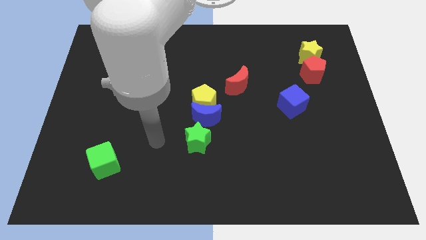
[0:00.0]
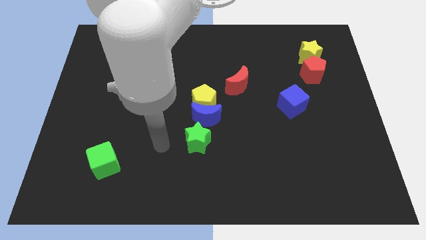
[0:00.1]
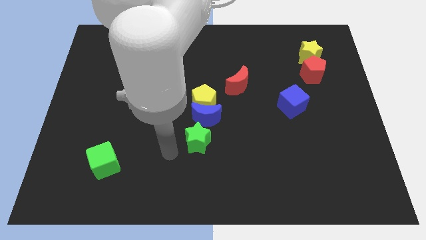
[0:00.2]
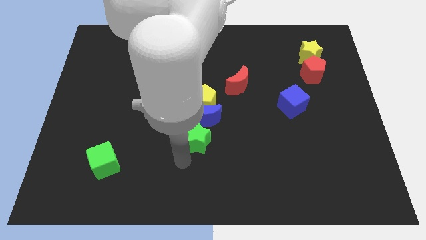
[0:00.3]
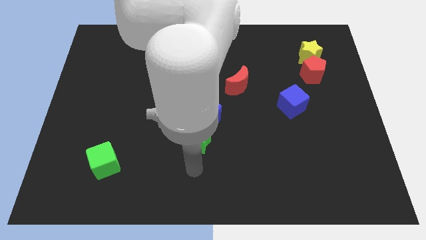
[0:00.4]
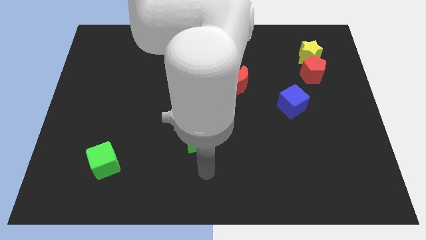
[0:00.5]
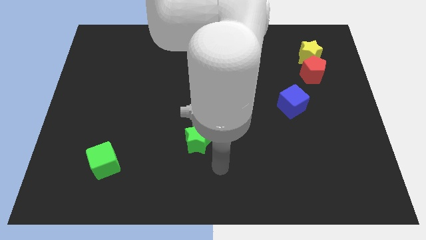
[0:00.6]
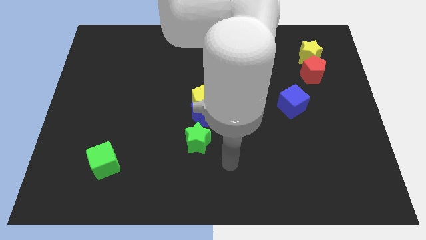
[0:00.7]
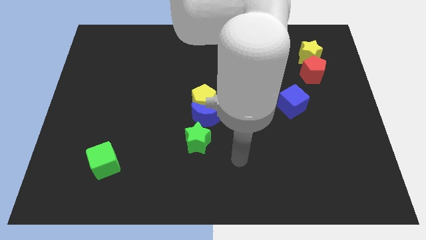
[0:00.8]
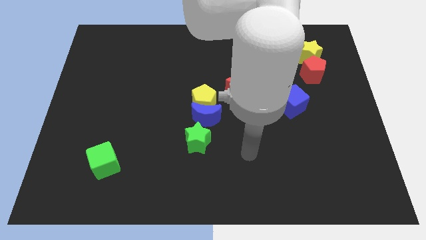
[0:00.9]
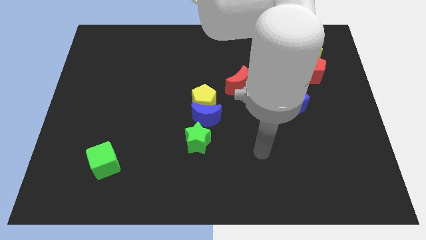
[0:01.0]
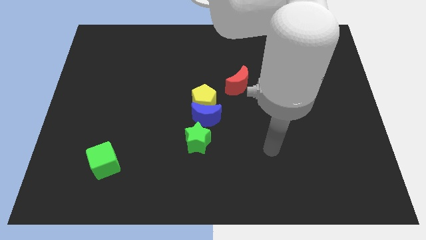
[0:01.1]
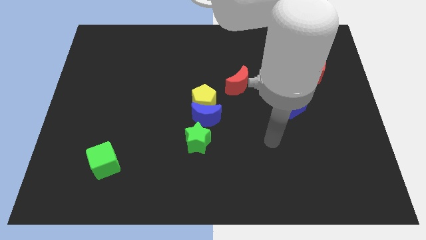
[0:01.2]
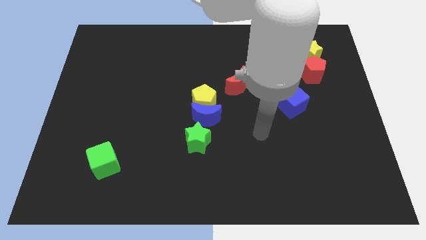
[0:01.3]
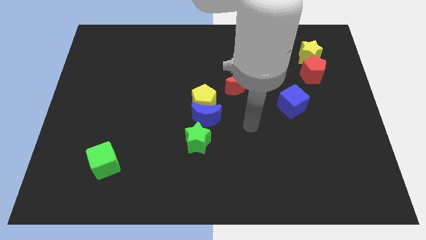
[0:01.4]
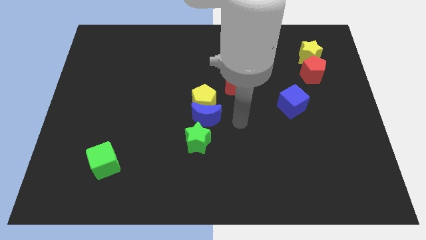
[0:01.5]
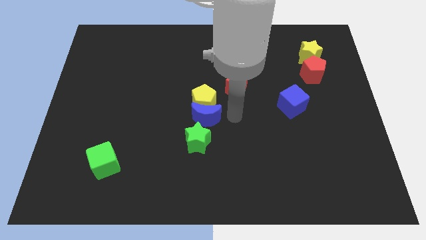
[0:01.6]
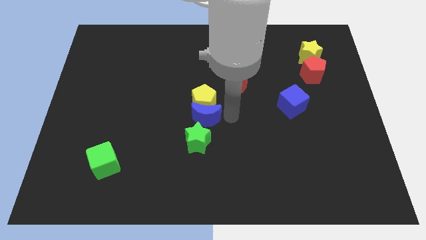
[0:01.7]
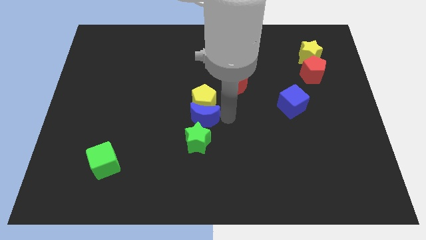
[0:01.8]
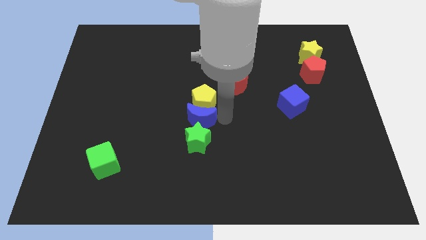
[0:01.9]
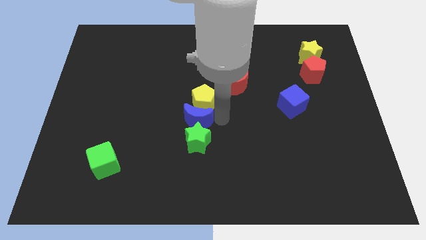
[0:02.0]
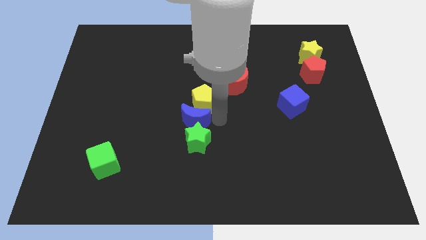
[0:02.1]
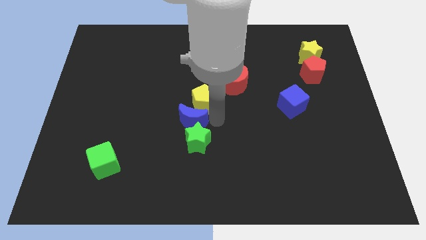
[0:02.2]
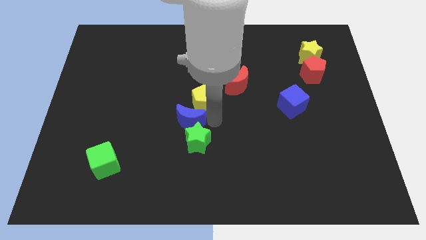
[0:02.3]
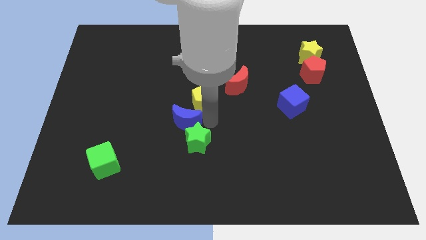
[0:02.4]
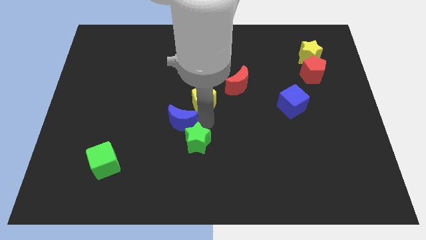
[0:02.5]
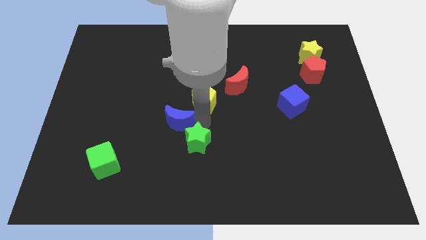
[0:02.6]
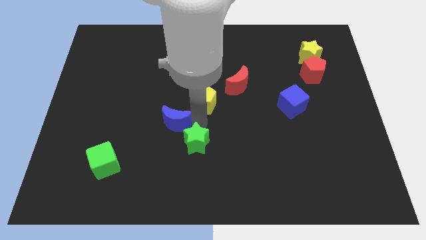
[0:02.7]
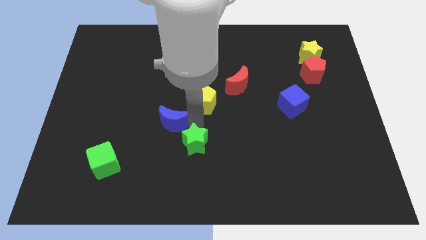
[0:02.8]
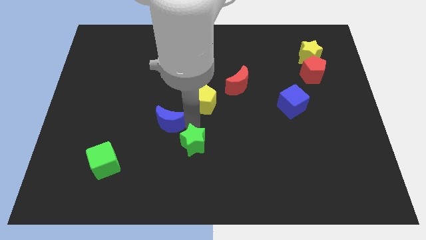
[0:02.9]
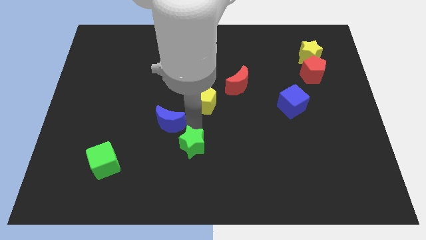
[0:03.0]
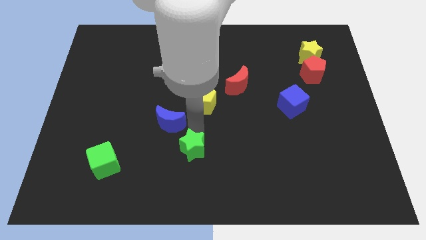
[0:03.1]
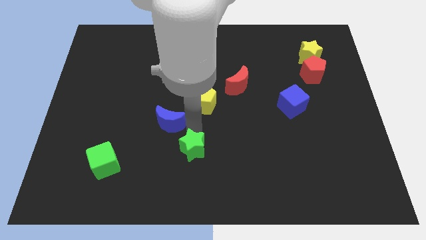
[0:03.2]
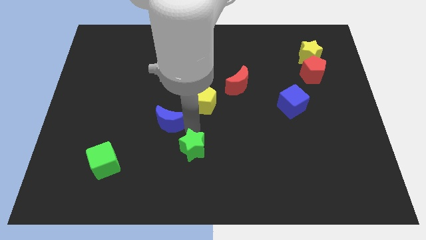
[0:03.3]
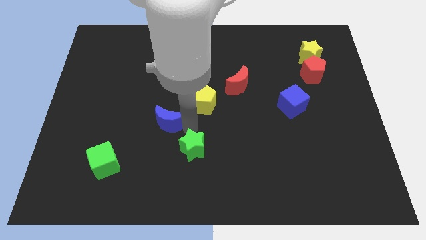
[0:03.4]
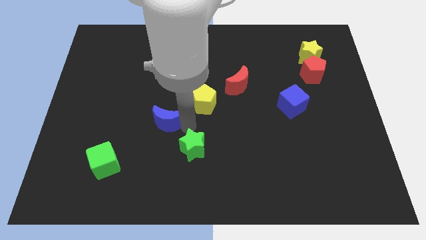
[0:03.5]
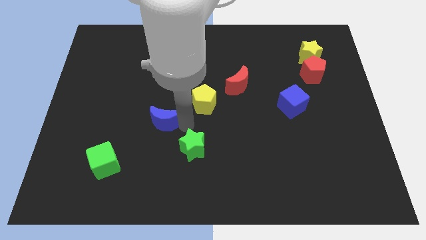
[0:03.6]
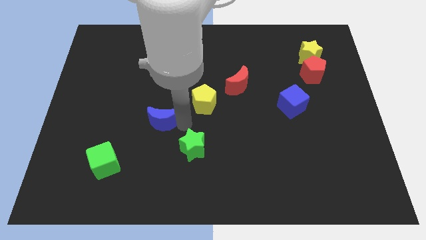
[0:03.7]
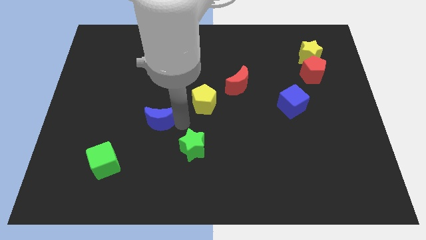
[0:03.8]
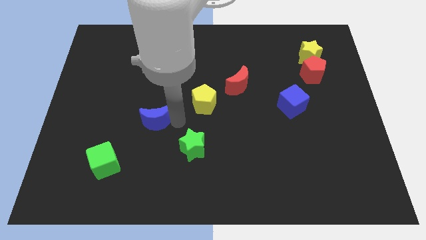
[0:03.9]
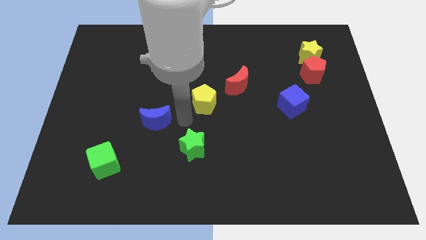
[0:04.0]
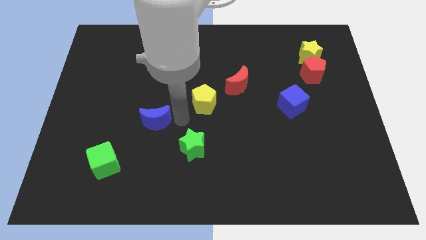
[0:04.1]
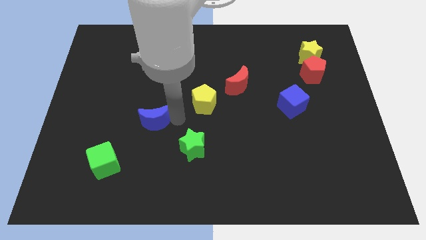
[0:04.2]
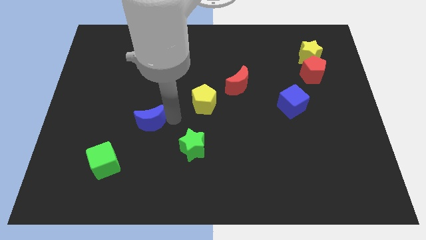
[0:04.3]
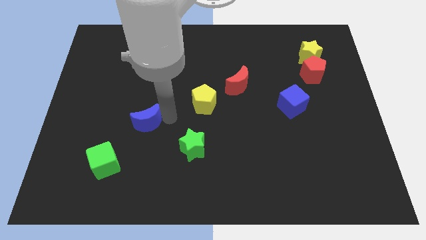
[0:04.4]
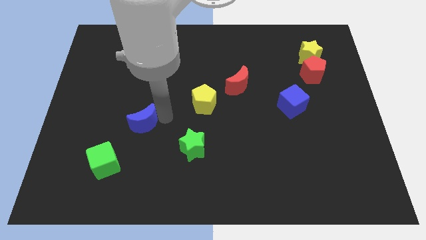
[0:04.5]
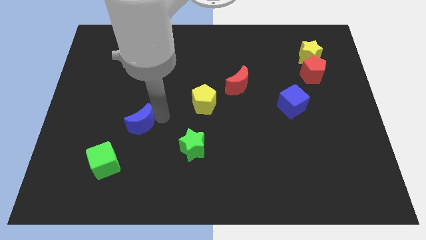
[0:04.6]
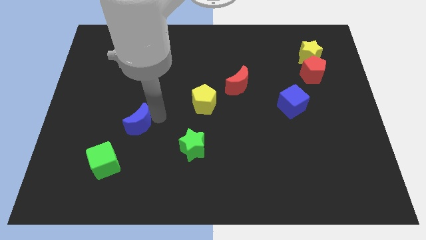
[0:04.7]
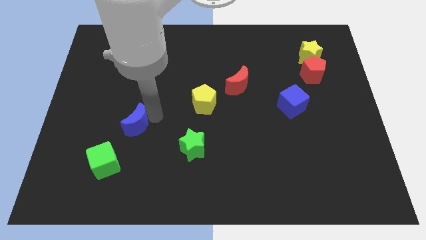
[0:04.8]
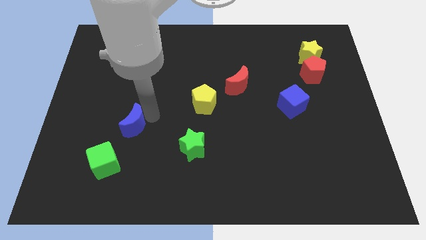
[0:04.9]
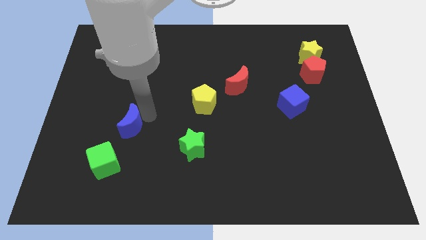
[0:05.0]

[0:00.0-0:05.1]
push the blue moon to the top of the green cube

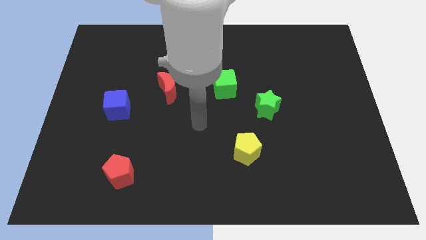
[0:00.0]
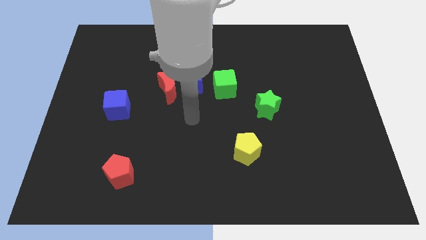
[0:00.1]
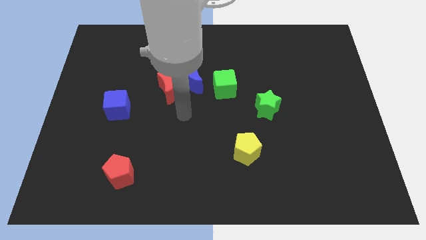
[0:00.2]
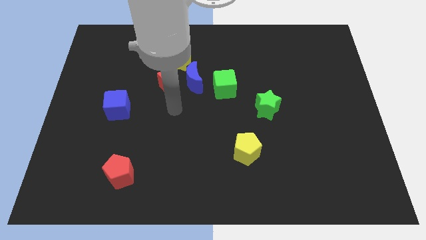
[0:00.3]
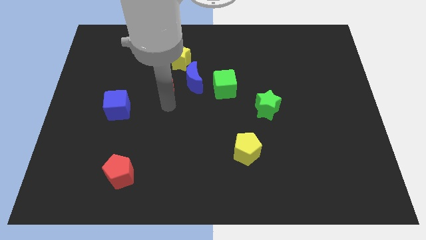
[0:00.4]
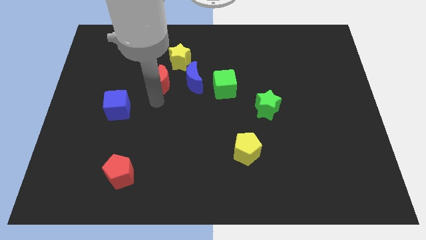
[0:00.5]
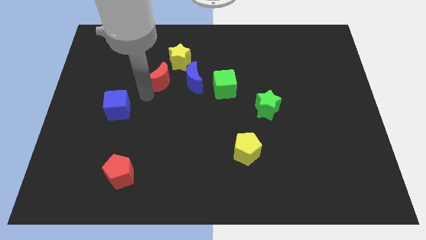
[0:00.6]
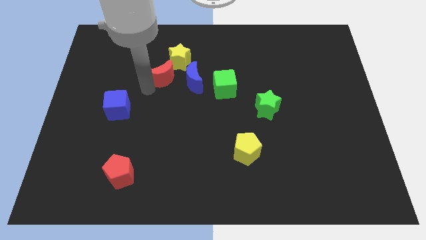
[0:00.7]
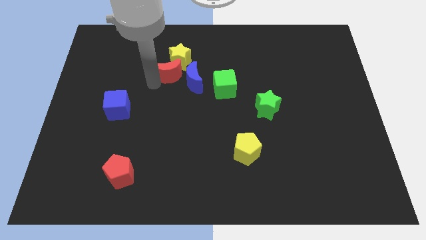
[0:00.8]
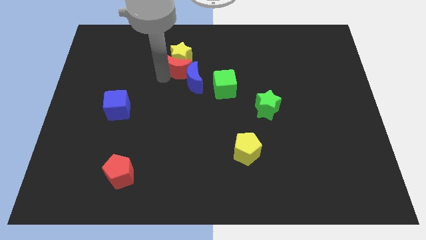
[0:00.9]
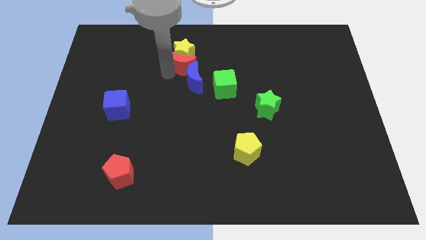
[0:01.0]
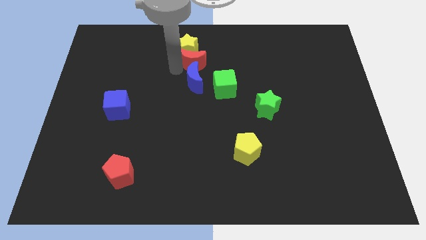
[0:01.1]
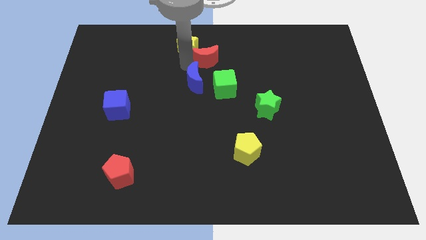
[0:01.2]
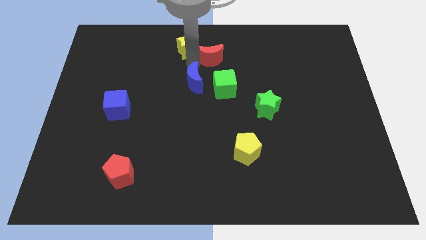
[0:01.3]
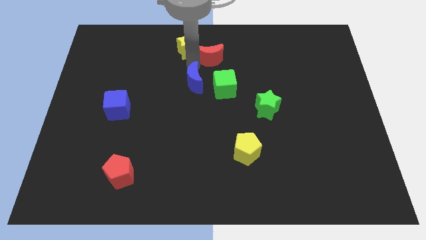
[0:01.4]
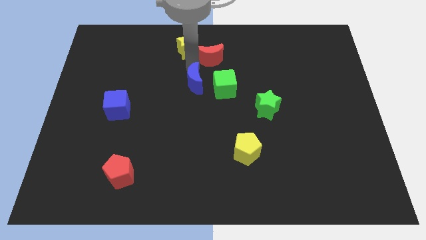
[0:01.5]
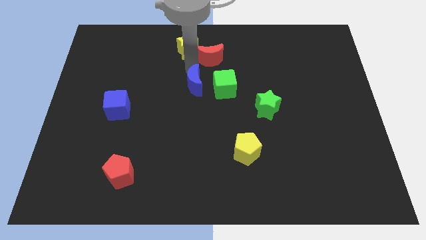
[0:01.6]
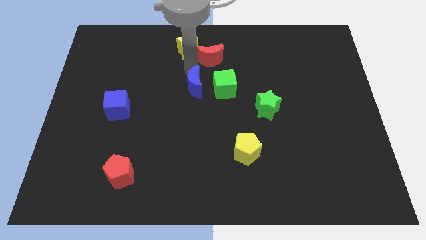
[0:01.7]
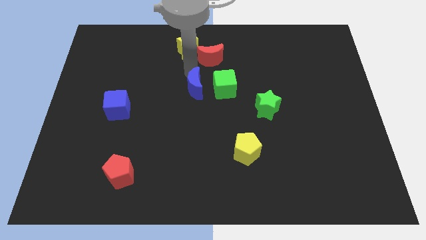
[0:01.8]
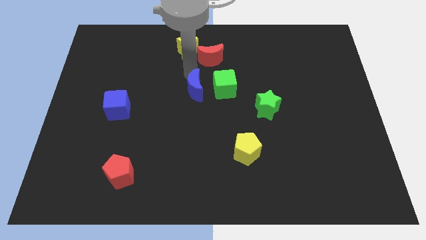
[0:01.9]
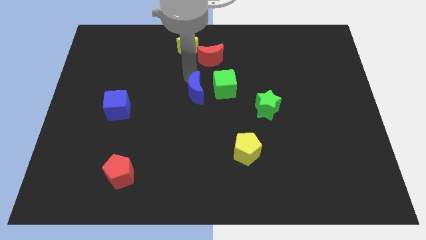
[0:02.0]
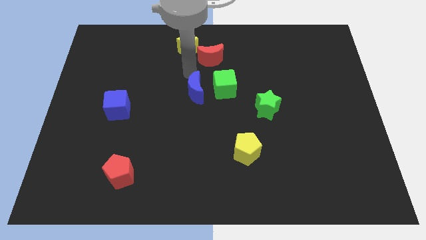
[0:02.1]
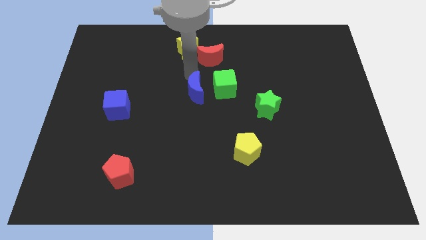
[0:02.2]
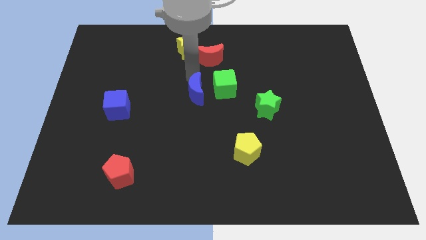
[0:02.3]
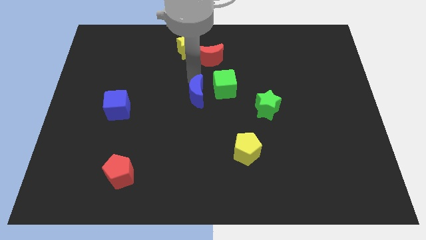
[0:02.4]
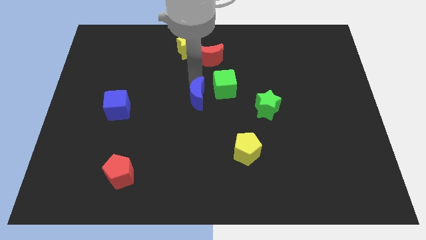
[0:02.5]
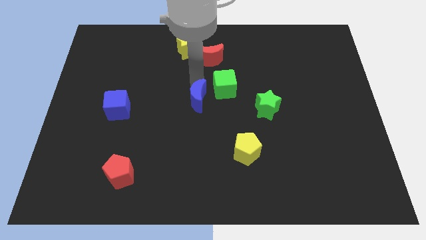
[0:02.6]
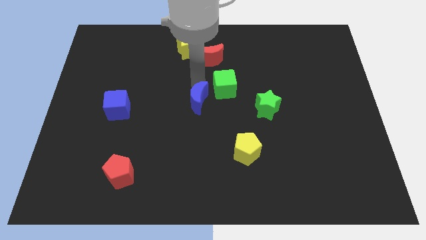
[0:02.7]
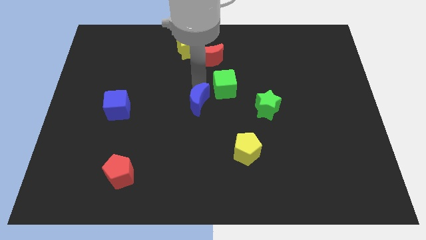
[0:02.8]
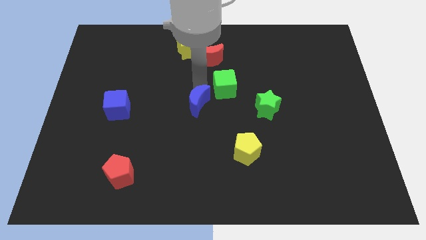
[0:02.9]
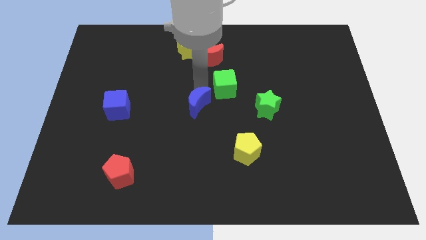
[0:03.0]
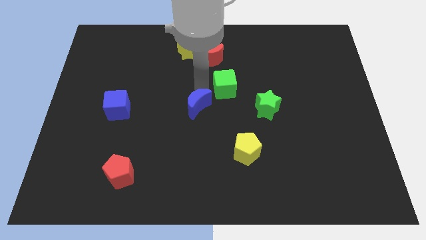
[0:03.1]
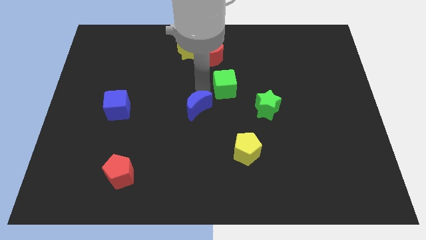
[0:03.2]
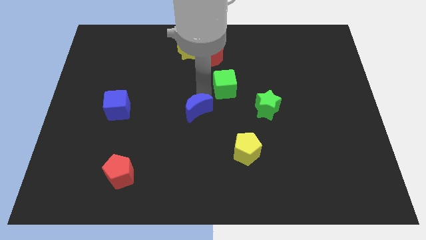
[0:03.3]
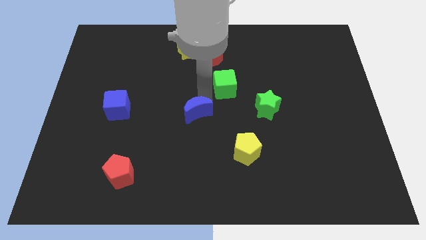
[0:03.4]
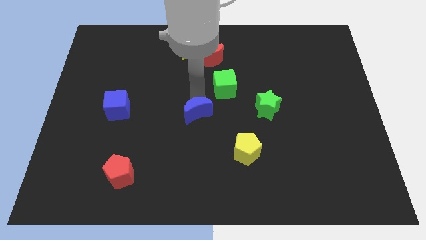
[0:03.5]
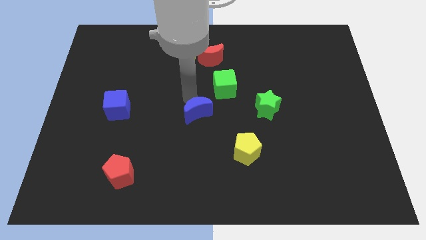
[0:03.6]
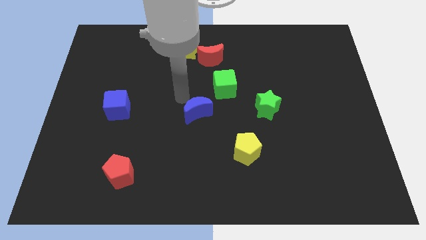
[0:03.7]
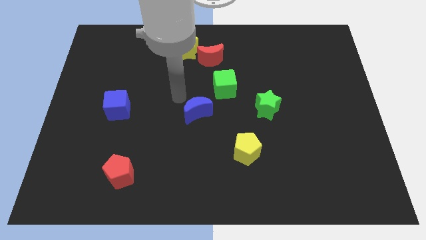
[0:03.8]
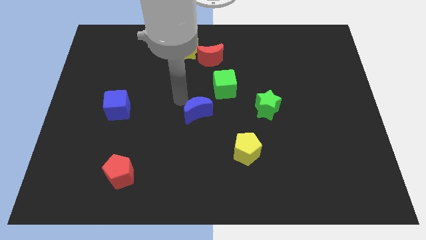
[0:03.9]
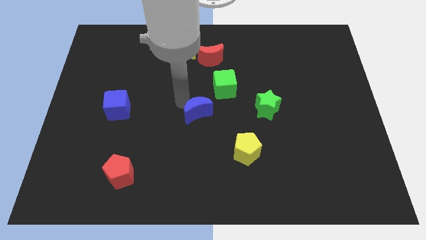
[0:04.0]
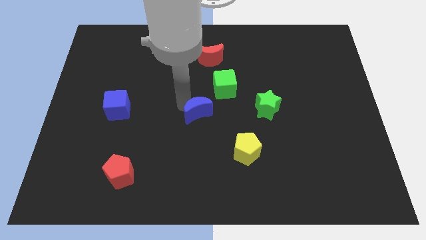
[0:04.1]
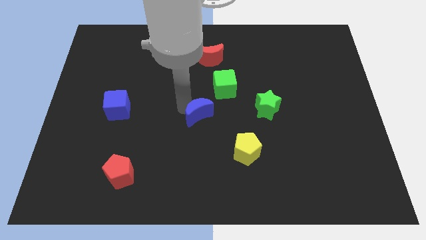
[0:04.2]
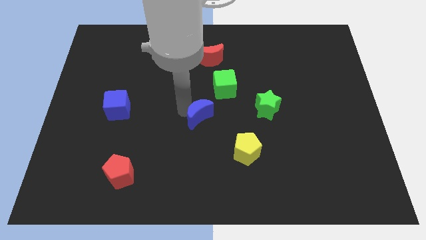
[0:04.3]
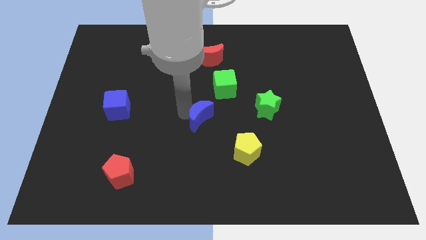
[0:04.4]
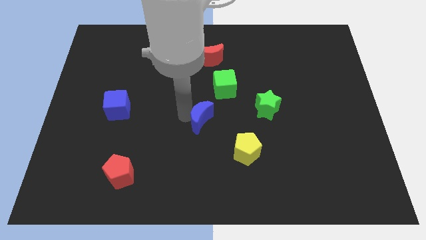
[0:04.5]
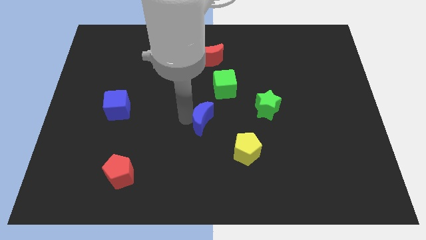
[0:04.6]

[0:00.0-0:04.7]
put the blue moon to the top left side of the yellow pentagon
